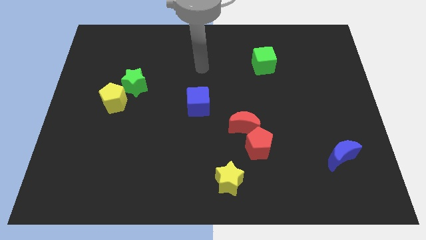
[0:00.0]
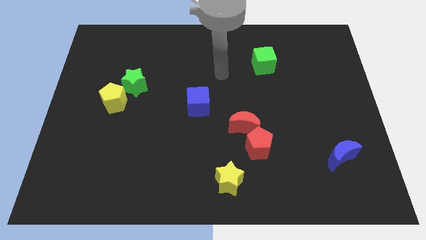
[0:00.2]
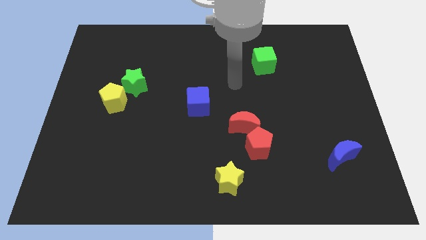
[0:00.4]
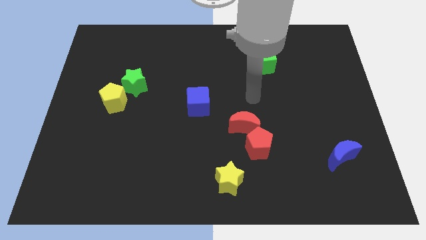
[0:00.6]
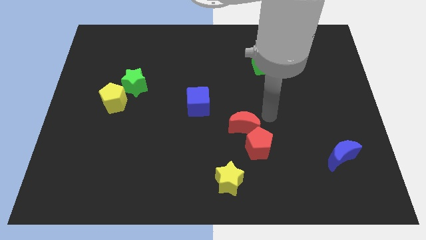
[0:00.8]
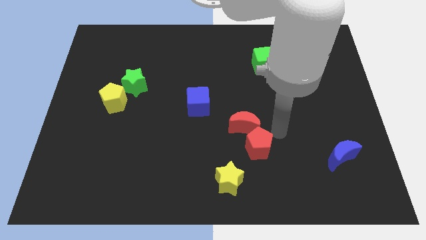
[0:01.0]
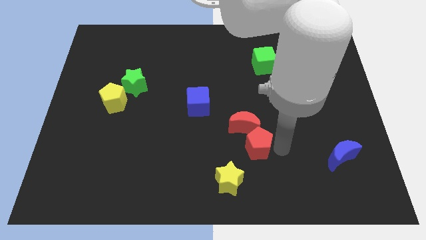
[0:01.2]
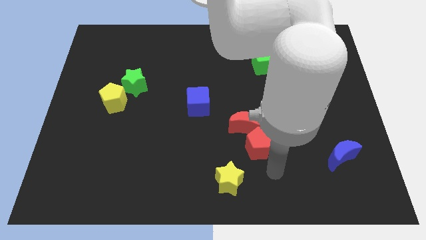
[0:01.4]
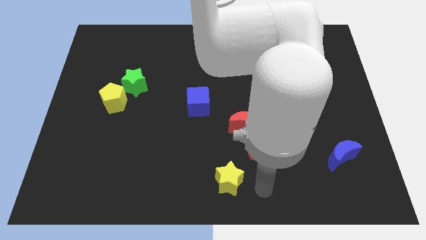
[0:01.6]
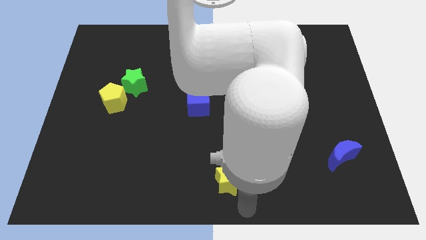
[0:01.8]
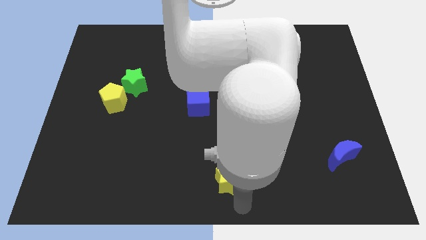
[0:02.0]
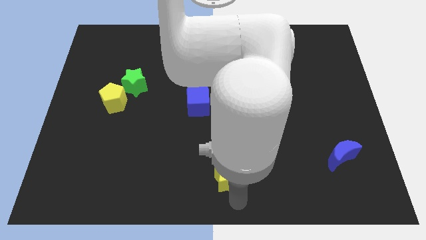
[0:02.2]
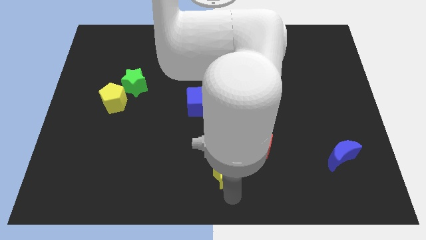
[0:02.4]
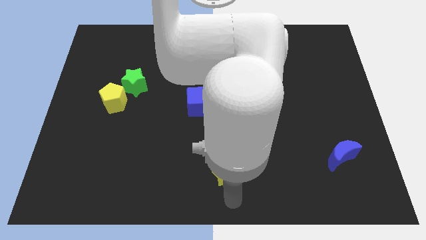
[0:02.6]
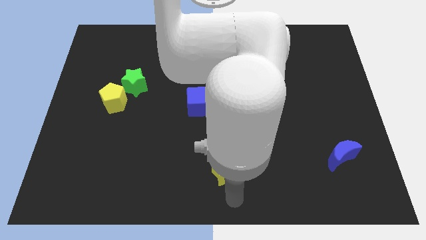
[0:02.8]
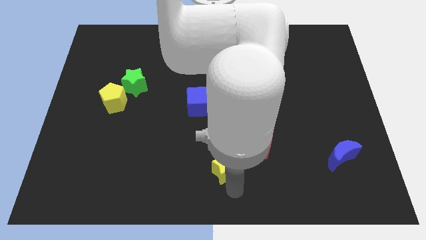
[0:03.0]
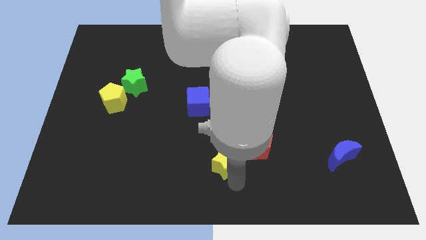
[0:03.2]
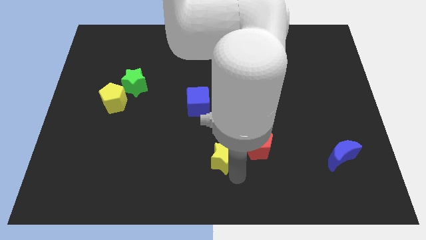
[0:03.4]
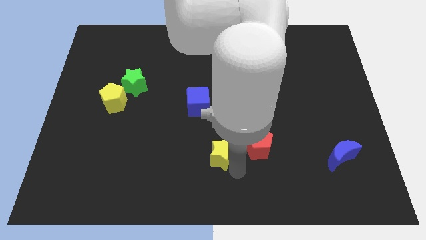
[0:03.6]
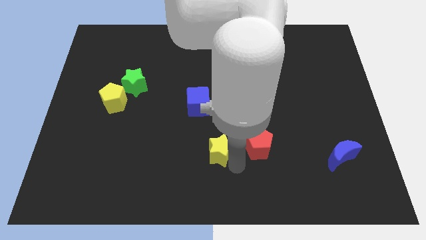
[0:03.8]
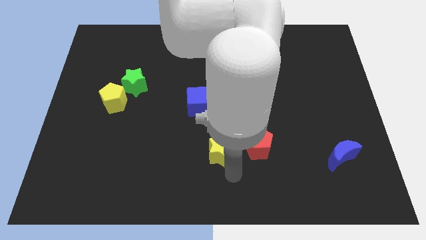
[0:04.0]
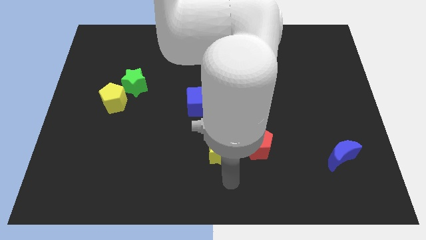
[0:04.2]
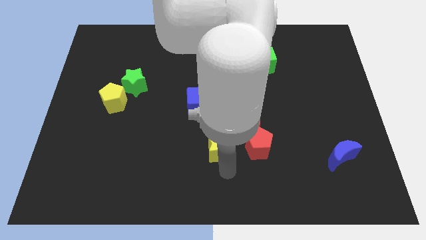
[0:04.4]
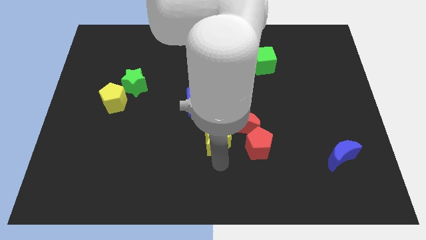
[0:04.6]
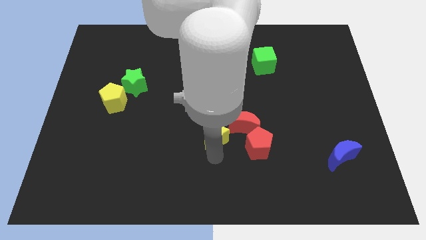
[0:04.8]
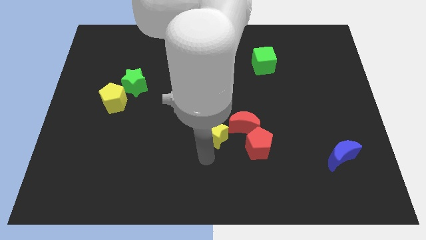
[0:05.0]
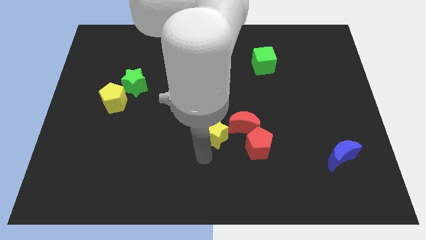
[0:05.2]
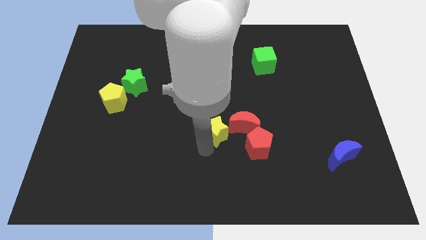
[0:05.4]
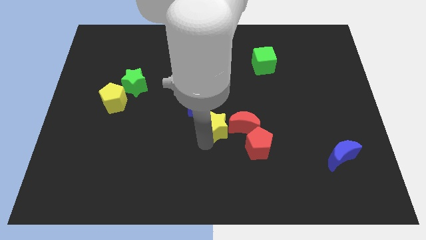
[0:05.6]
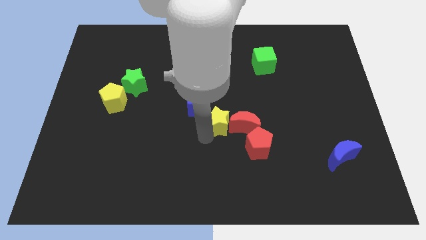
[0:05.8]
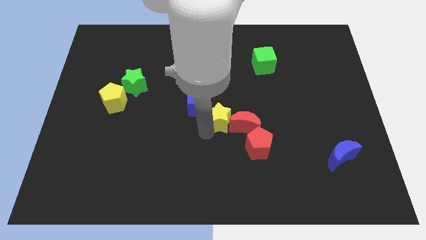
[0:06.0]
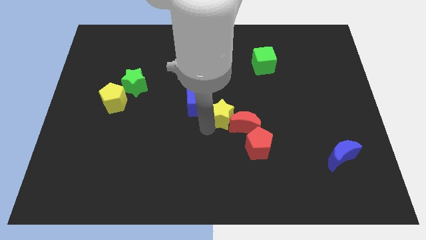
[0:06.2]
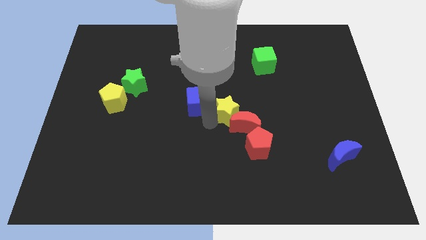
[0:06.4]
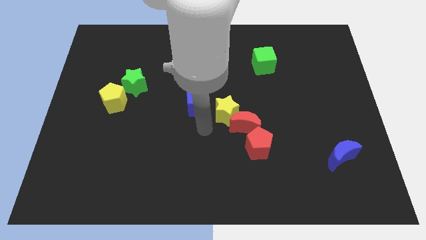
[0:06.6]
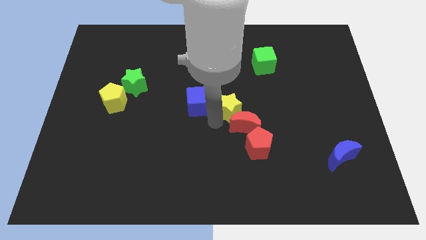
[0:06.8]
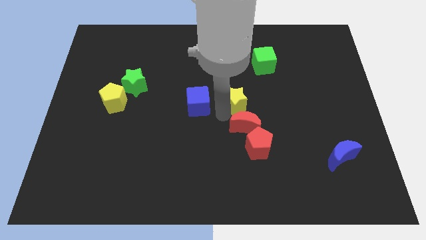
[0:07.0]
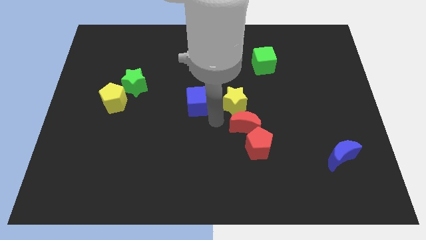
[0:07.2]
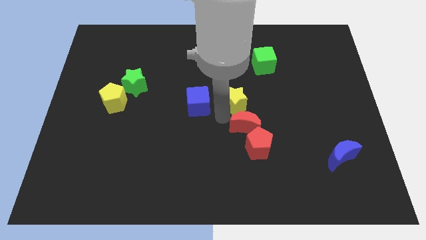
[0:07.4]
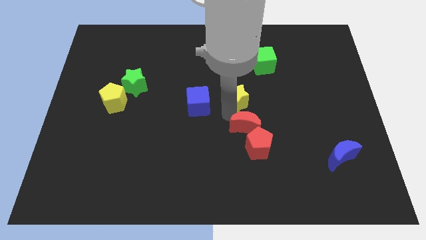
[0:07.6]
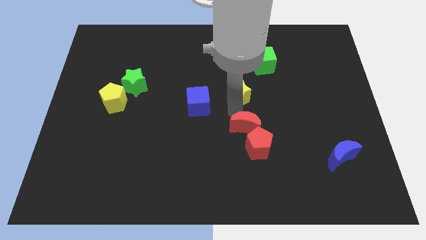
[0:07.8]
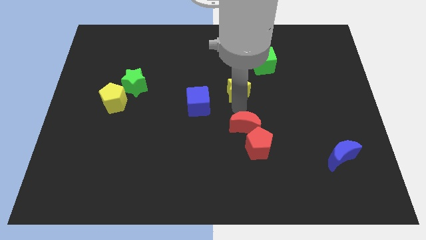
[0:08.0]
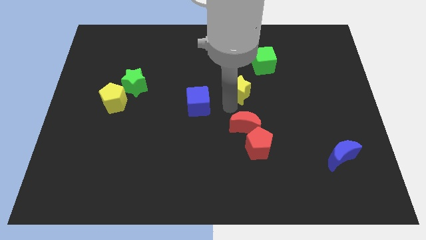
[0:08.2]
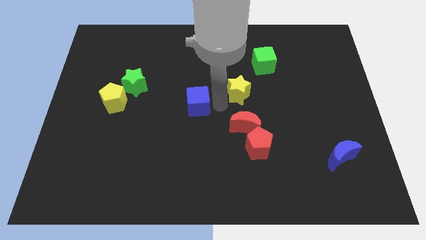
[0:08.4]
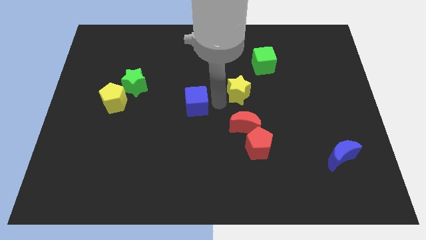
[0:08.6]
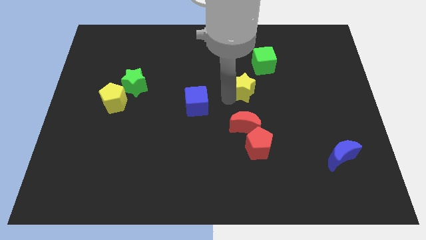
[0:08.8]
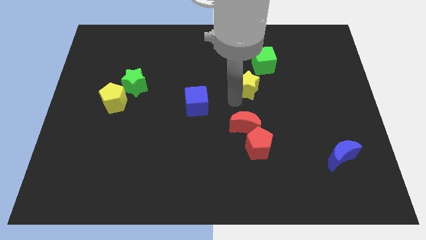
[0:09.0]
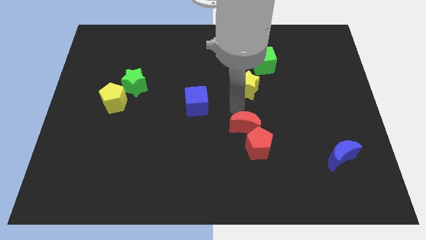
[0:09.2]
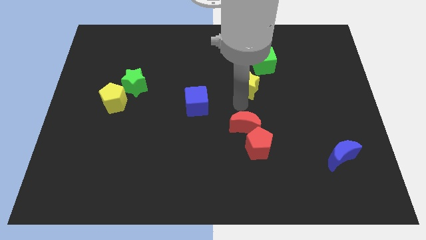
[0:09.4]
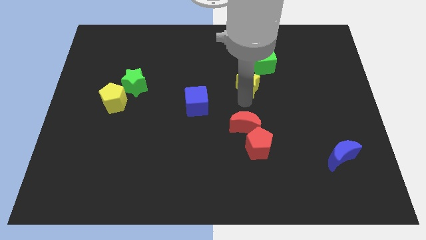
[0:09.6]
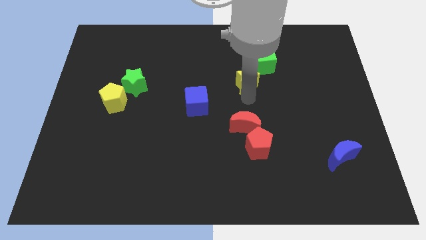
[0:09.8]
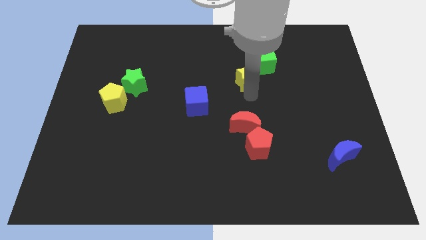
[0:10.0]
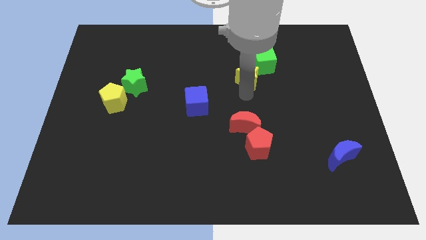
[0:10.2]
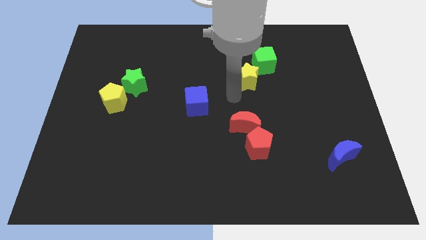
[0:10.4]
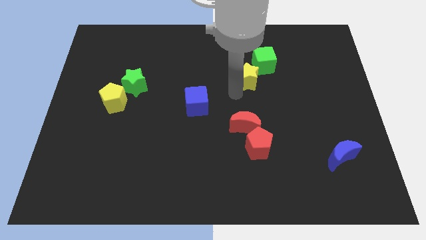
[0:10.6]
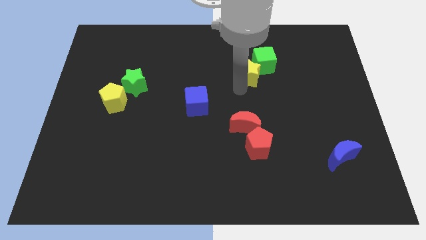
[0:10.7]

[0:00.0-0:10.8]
push the yellow star next to the green cube

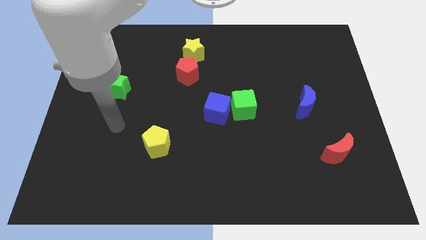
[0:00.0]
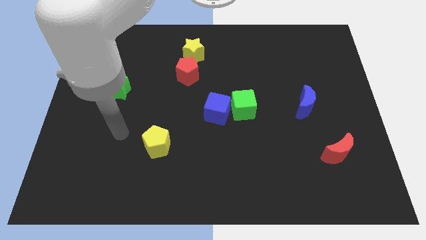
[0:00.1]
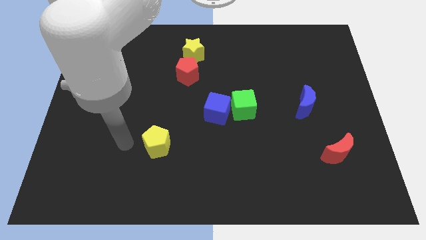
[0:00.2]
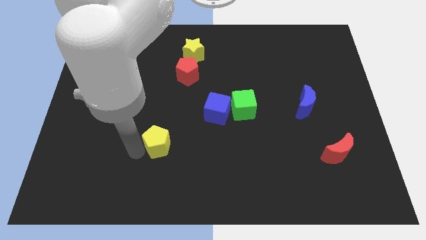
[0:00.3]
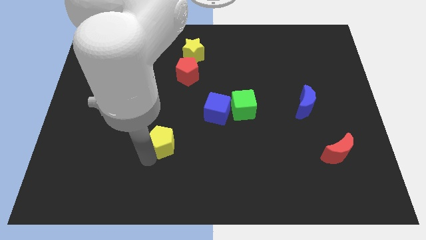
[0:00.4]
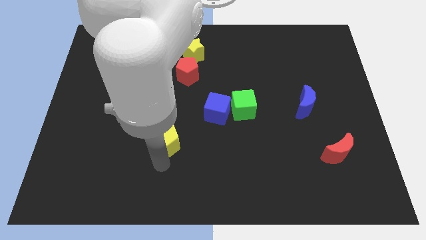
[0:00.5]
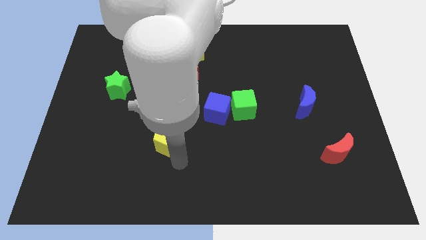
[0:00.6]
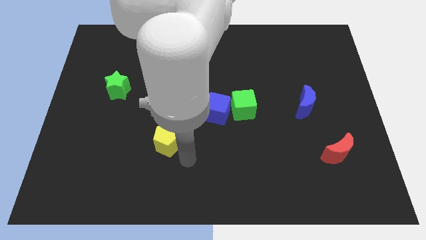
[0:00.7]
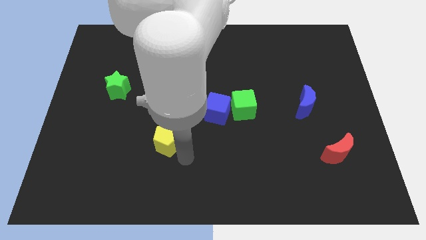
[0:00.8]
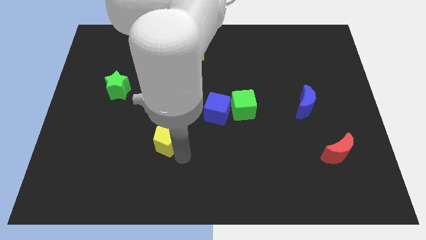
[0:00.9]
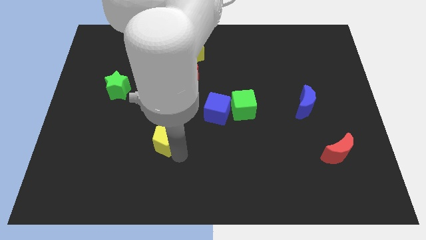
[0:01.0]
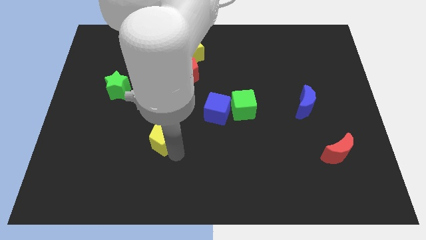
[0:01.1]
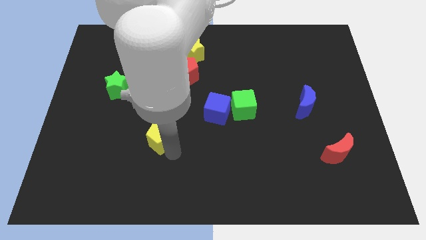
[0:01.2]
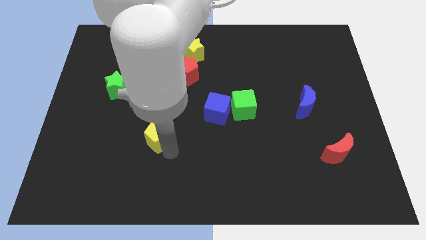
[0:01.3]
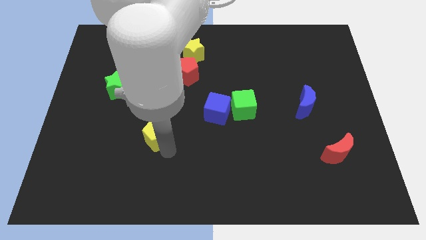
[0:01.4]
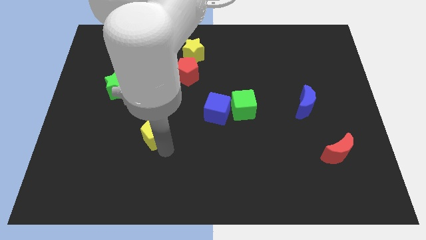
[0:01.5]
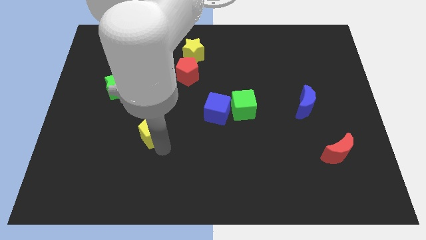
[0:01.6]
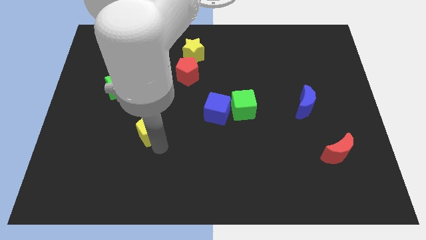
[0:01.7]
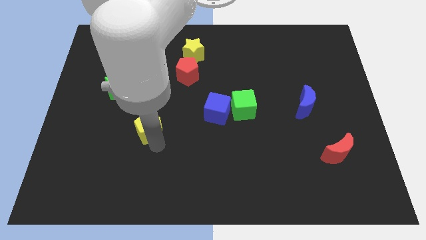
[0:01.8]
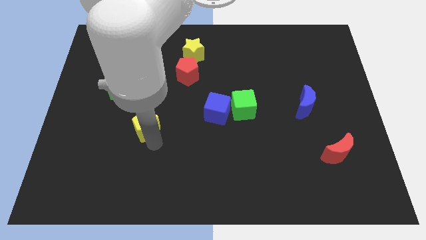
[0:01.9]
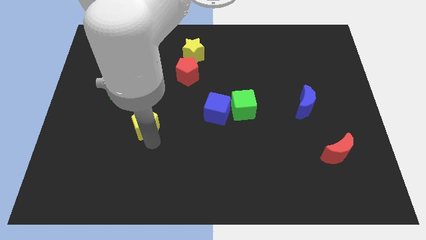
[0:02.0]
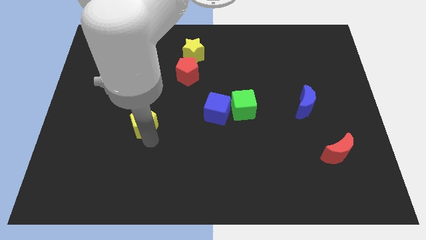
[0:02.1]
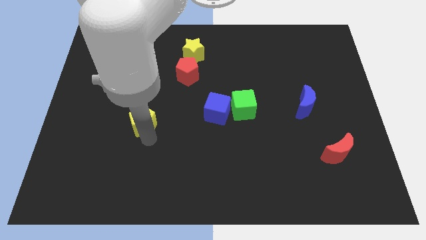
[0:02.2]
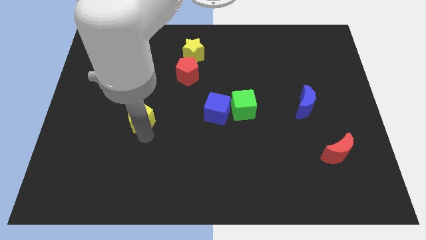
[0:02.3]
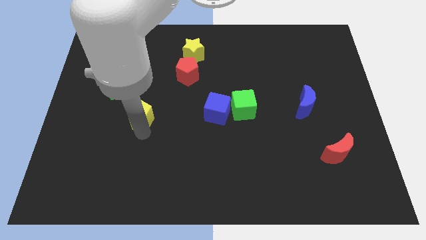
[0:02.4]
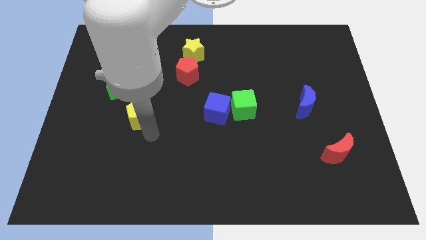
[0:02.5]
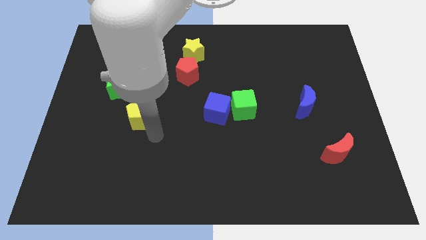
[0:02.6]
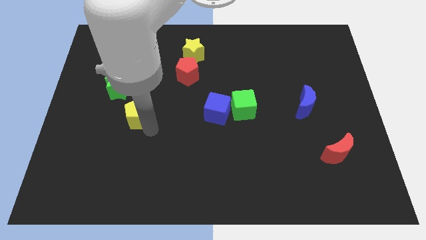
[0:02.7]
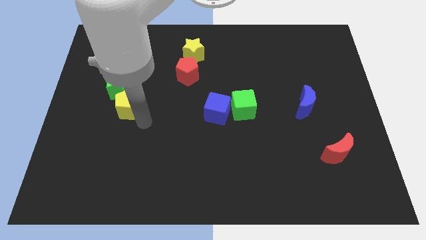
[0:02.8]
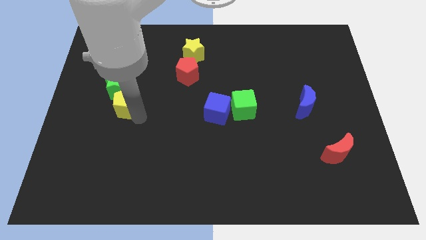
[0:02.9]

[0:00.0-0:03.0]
push the yellow pentagon to the green star
